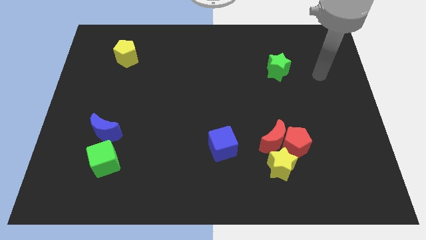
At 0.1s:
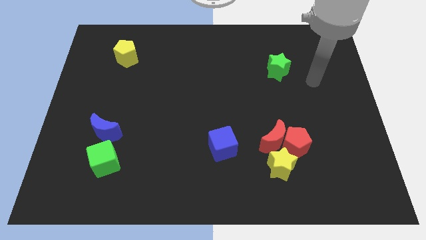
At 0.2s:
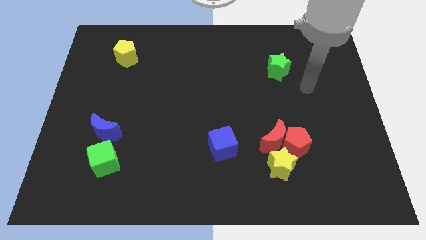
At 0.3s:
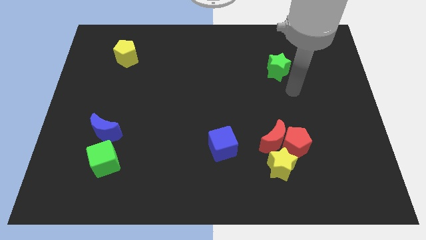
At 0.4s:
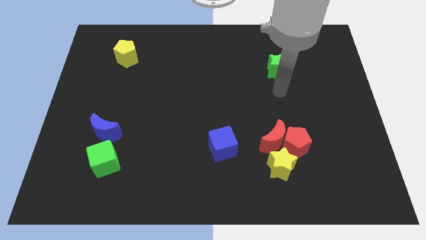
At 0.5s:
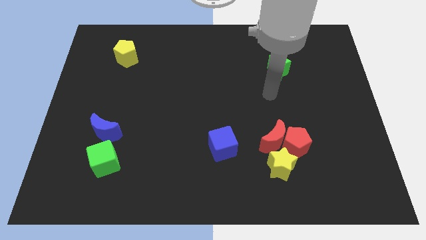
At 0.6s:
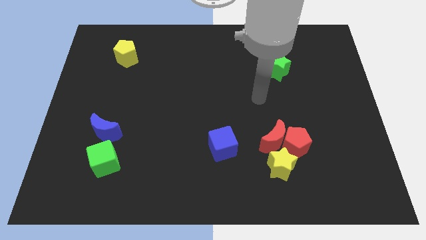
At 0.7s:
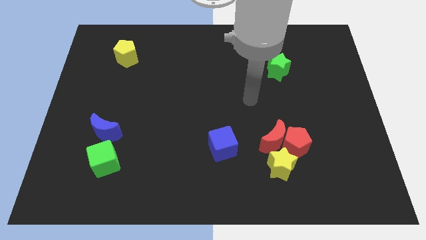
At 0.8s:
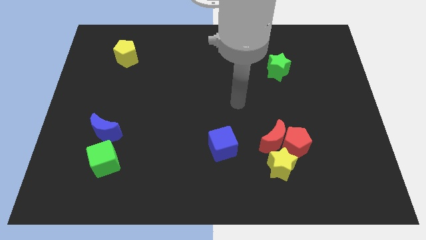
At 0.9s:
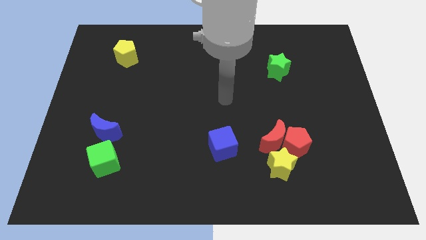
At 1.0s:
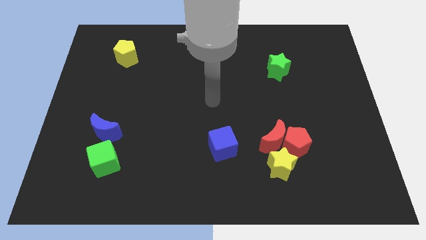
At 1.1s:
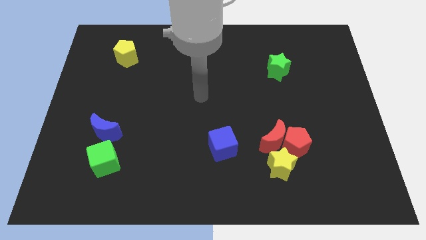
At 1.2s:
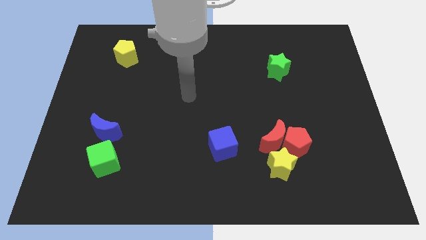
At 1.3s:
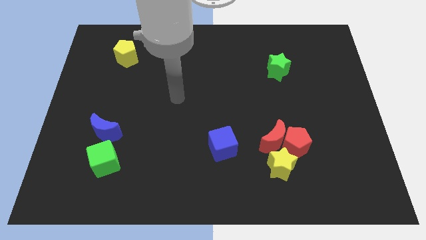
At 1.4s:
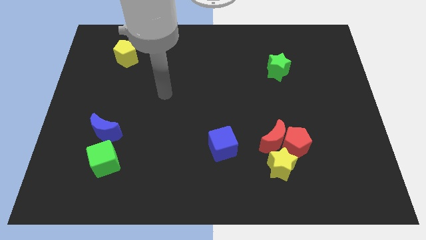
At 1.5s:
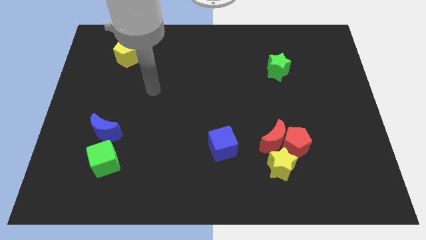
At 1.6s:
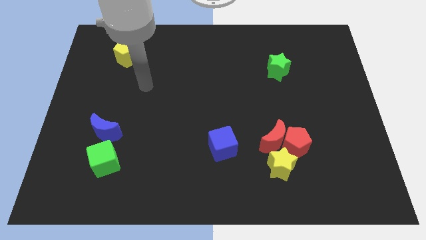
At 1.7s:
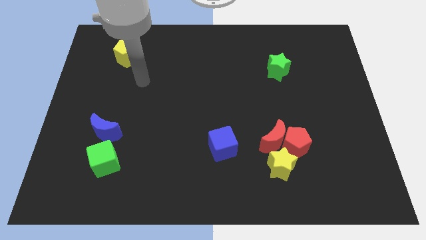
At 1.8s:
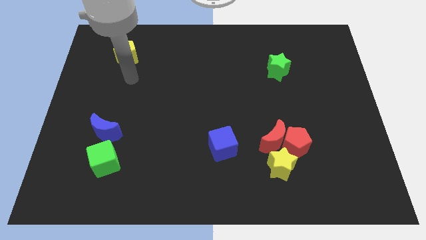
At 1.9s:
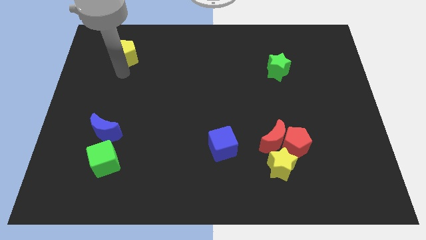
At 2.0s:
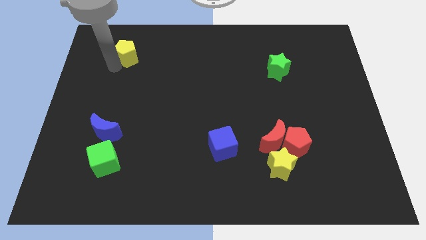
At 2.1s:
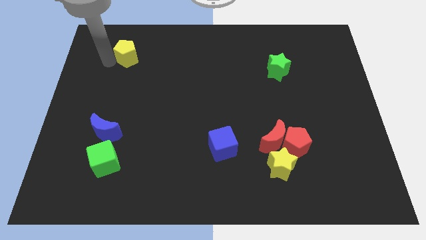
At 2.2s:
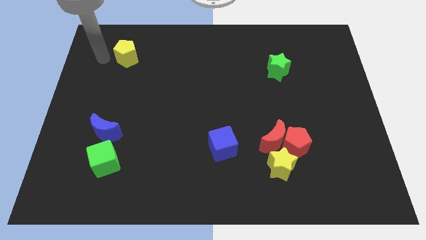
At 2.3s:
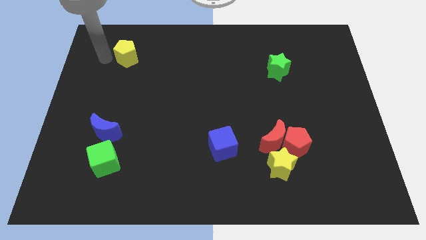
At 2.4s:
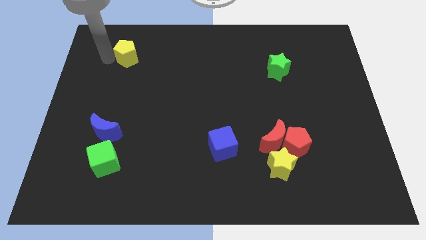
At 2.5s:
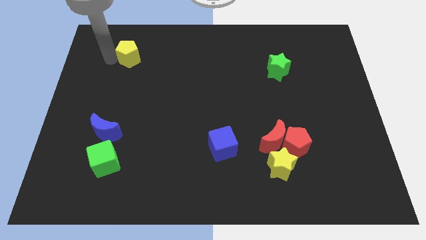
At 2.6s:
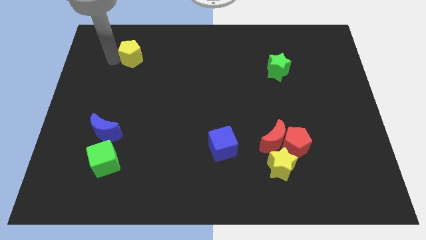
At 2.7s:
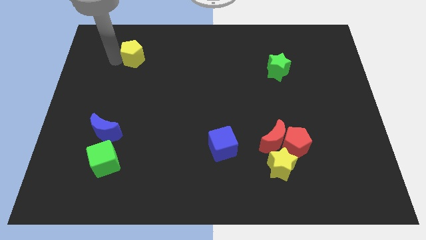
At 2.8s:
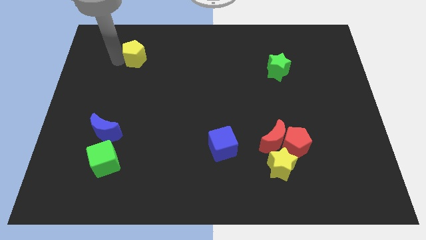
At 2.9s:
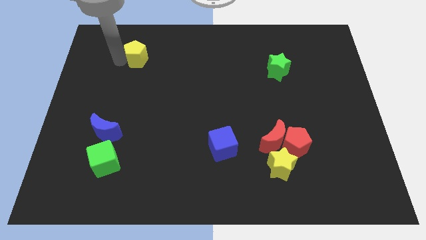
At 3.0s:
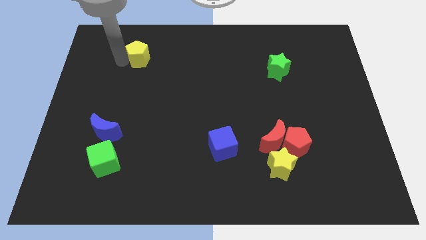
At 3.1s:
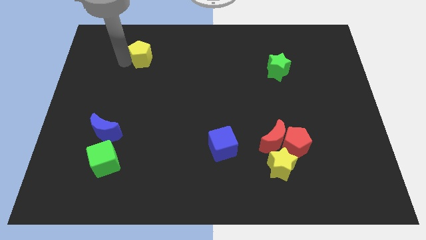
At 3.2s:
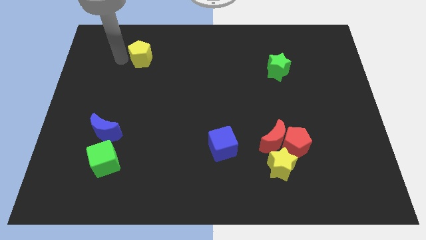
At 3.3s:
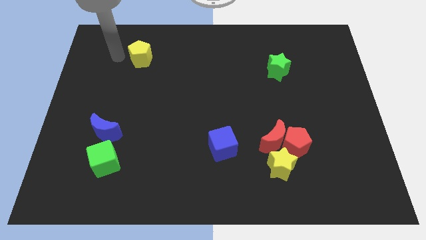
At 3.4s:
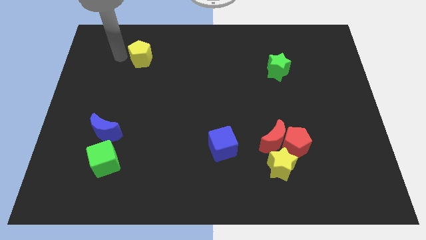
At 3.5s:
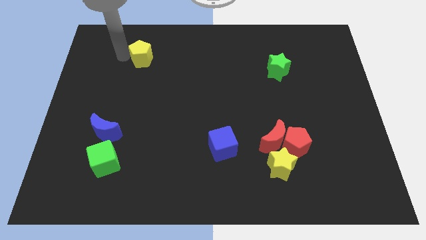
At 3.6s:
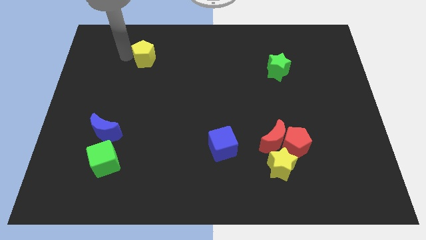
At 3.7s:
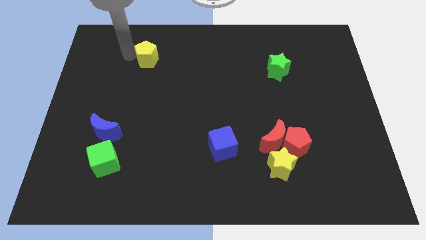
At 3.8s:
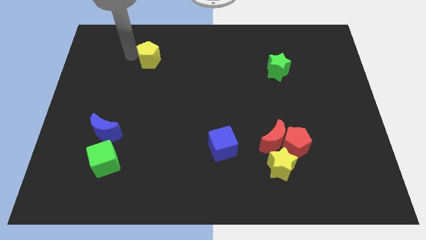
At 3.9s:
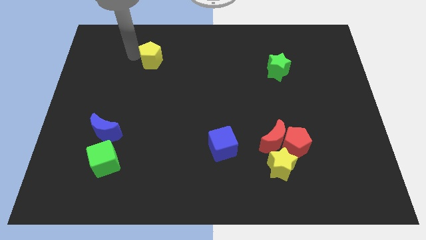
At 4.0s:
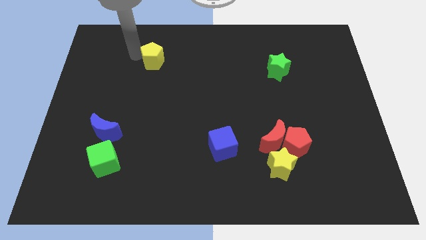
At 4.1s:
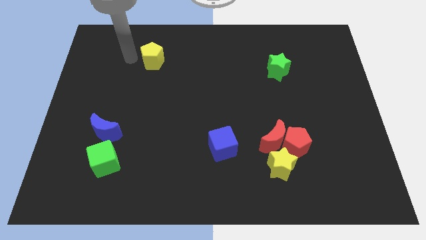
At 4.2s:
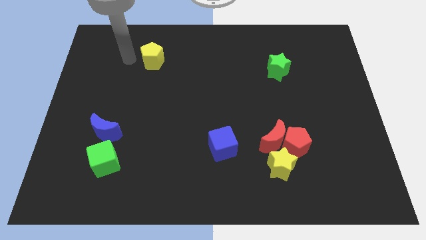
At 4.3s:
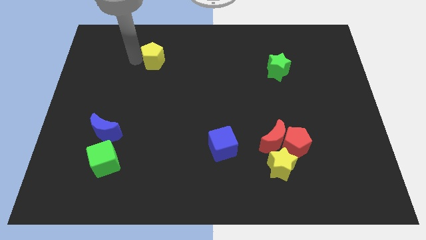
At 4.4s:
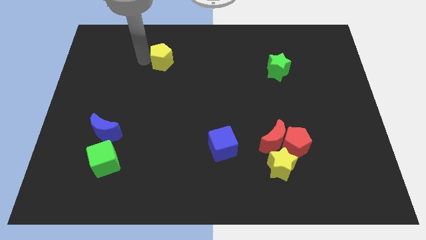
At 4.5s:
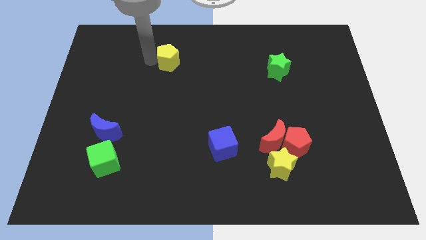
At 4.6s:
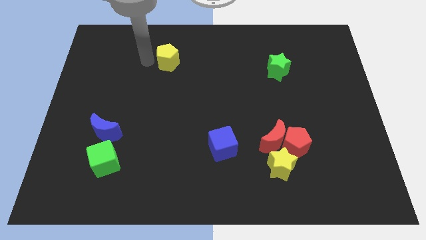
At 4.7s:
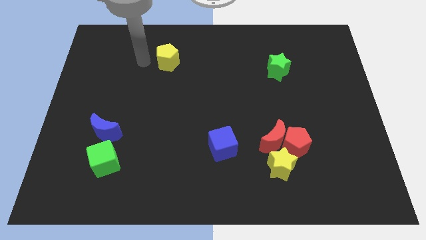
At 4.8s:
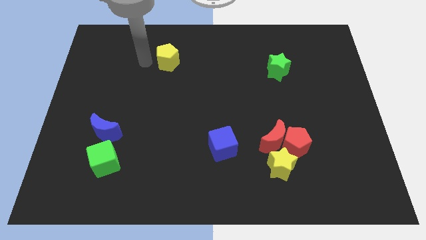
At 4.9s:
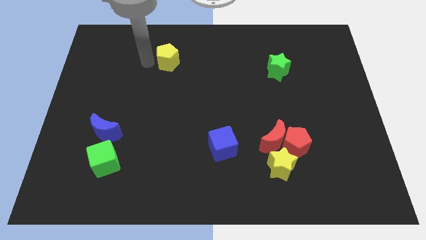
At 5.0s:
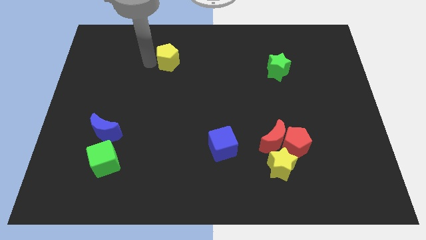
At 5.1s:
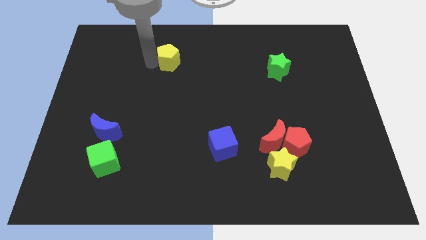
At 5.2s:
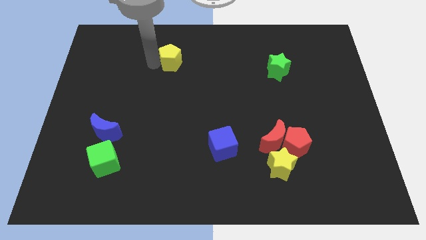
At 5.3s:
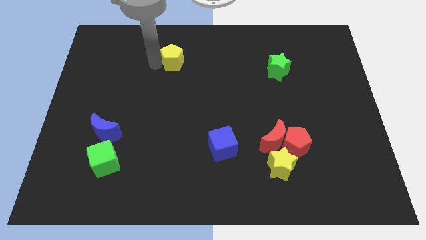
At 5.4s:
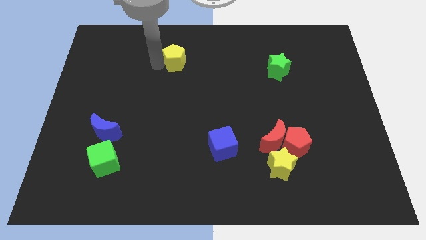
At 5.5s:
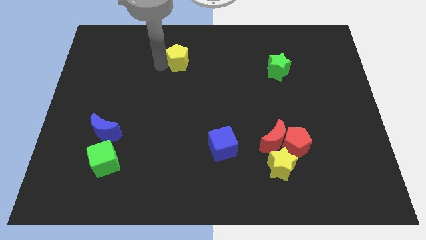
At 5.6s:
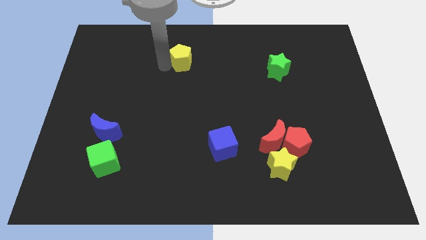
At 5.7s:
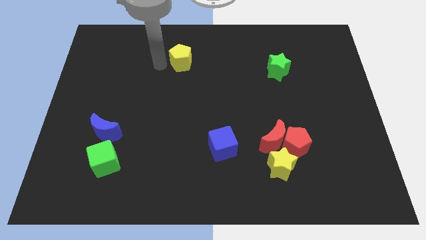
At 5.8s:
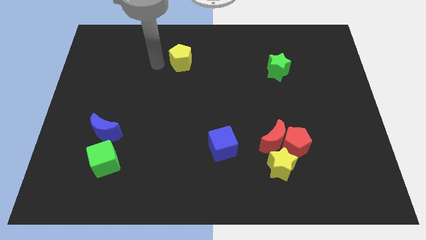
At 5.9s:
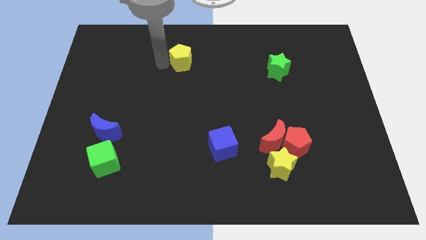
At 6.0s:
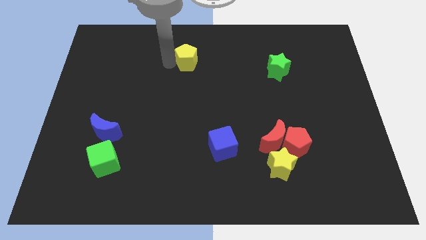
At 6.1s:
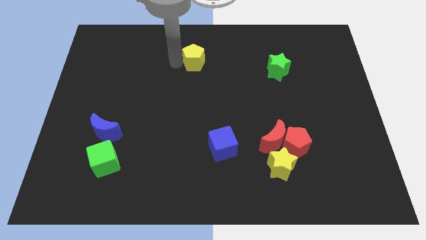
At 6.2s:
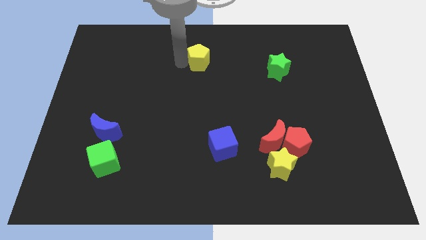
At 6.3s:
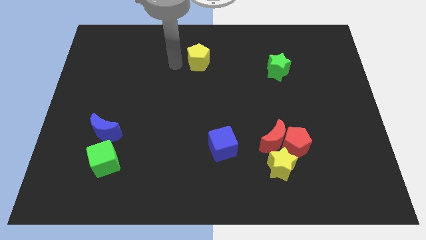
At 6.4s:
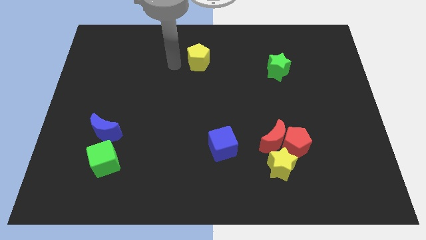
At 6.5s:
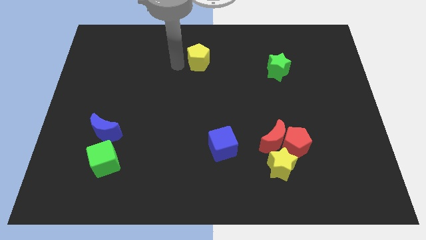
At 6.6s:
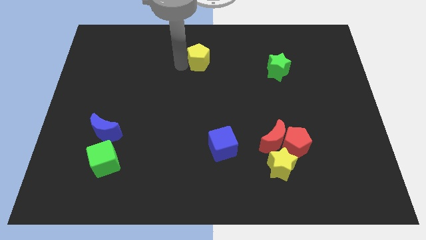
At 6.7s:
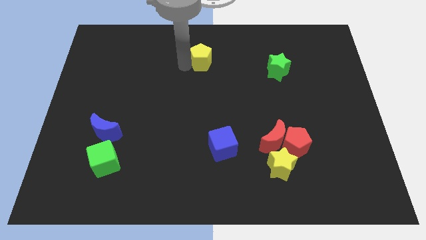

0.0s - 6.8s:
move the yellow pentagon right

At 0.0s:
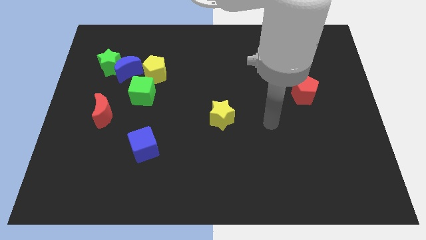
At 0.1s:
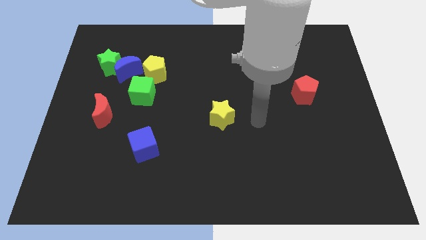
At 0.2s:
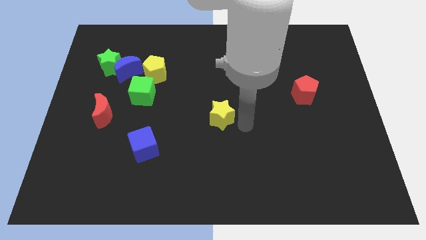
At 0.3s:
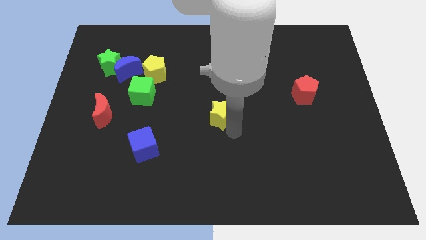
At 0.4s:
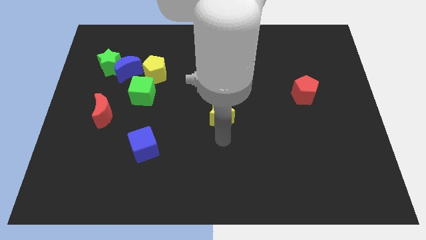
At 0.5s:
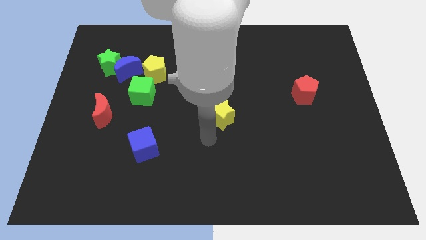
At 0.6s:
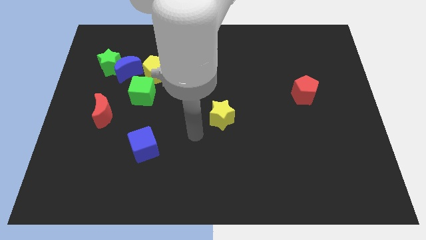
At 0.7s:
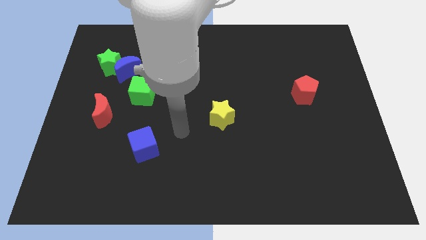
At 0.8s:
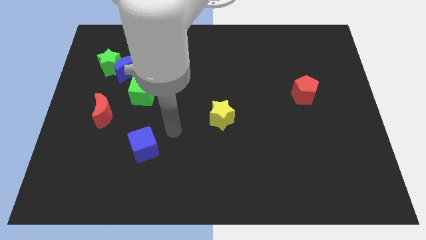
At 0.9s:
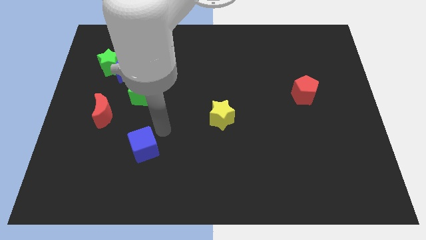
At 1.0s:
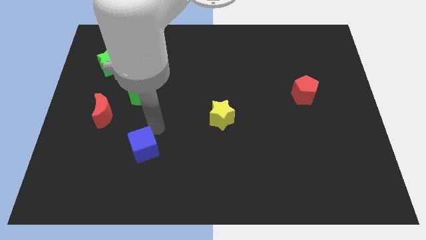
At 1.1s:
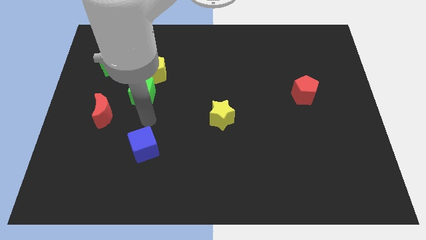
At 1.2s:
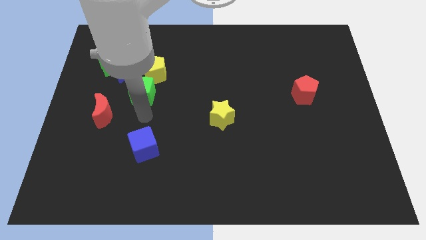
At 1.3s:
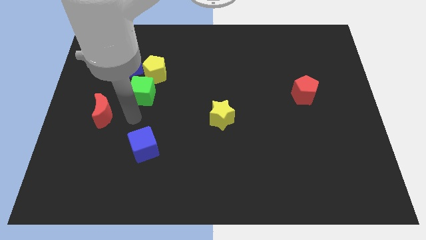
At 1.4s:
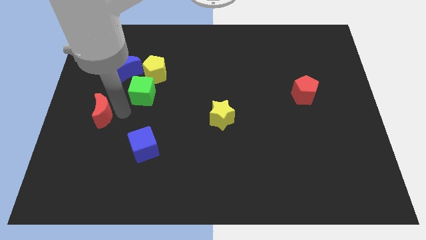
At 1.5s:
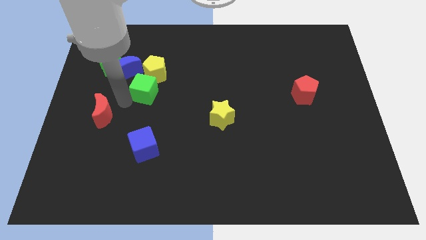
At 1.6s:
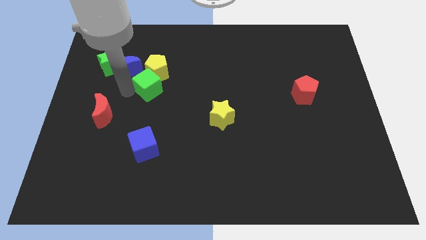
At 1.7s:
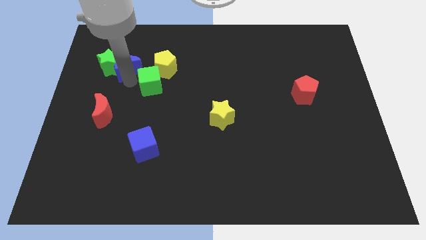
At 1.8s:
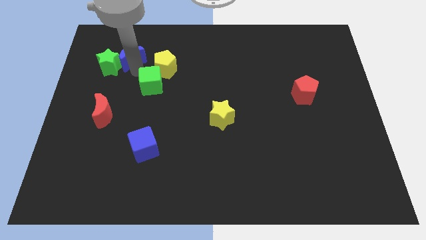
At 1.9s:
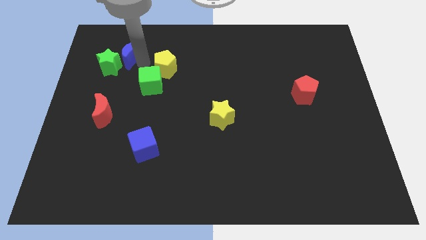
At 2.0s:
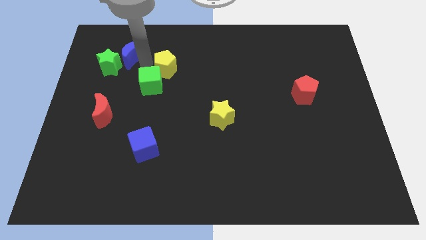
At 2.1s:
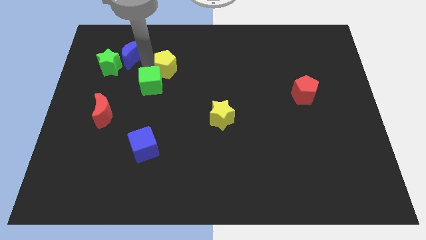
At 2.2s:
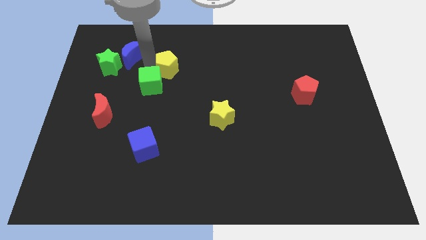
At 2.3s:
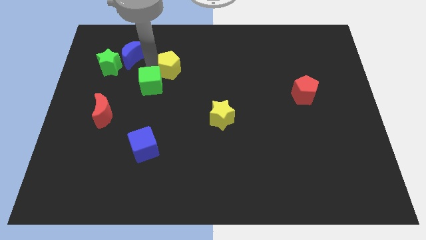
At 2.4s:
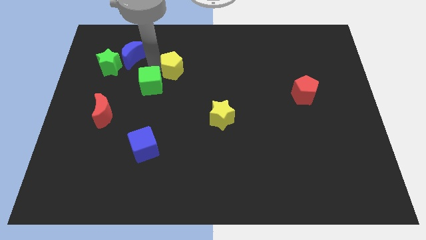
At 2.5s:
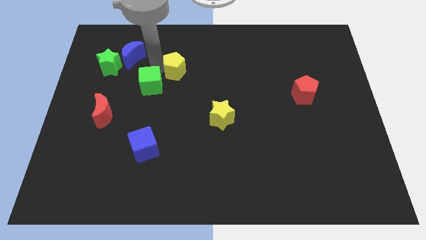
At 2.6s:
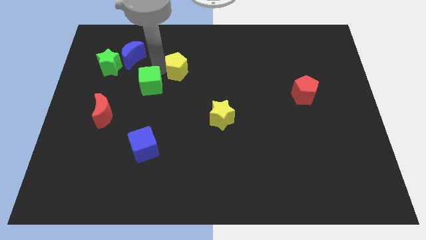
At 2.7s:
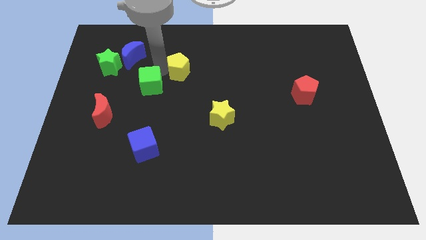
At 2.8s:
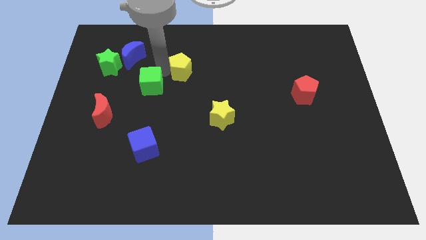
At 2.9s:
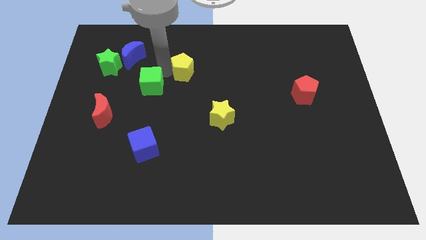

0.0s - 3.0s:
slightly push the yellow pentagon right
